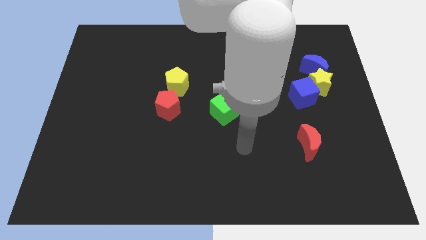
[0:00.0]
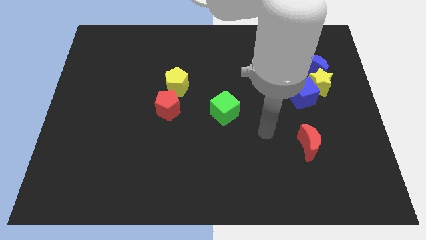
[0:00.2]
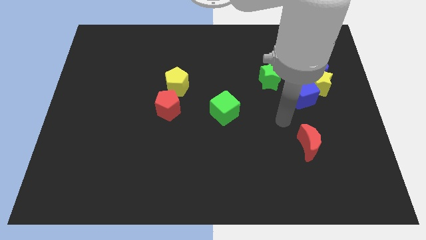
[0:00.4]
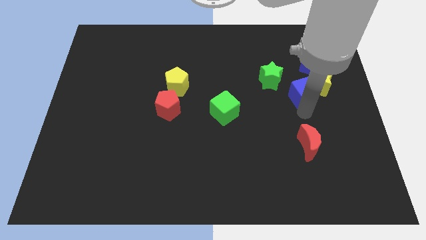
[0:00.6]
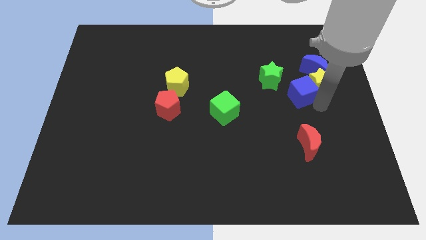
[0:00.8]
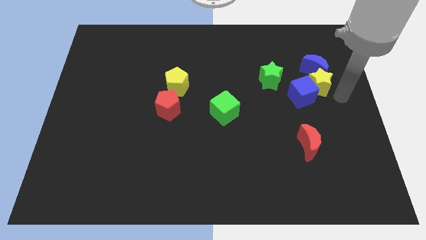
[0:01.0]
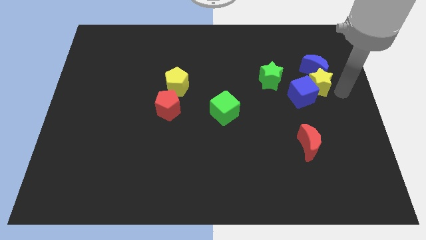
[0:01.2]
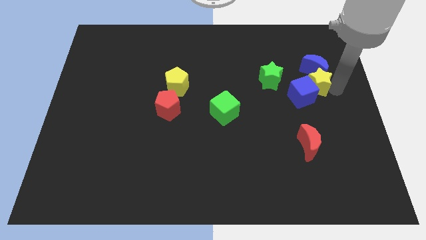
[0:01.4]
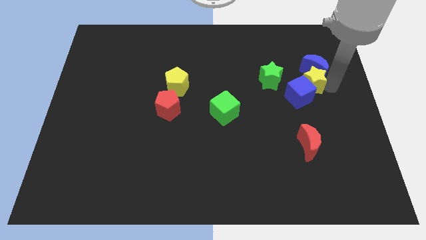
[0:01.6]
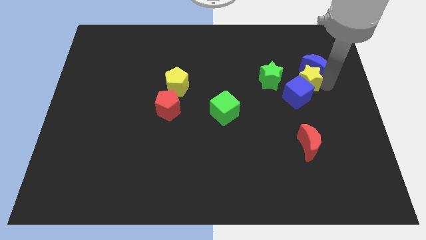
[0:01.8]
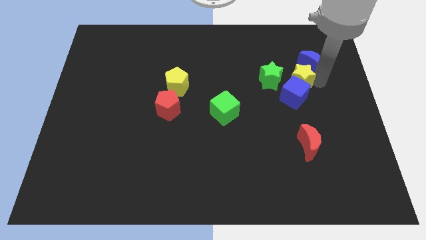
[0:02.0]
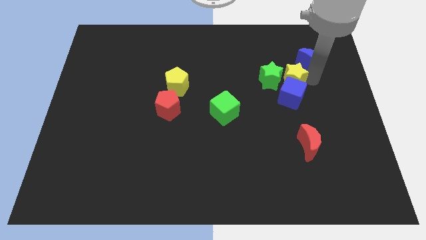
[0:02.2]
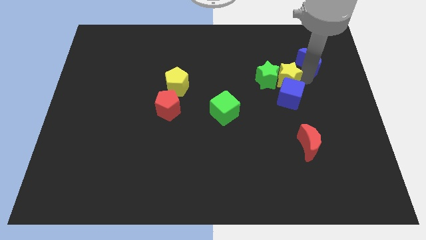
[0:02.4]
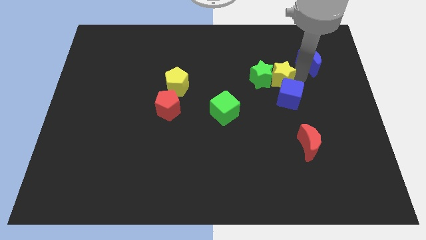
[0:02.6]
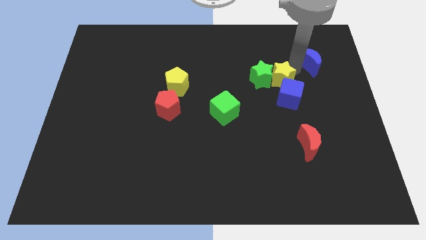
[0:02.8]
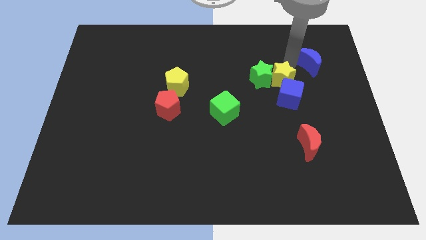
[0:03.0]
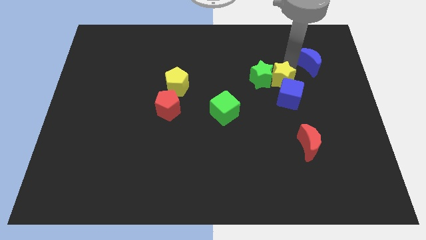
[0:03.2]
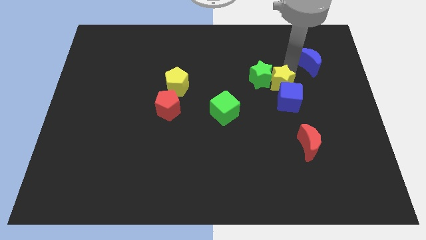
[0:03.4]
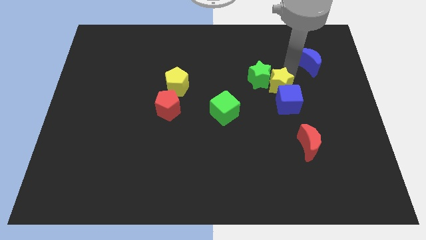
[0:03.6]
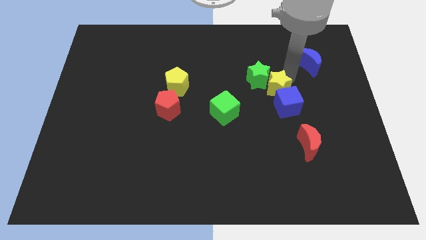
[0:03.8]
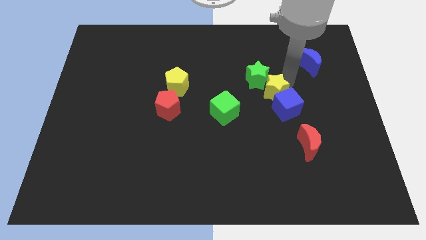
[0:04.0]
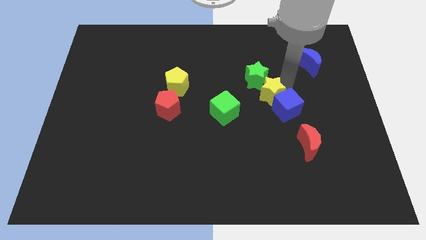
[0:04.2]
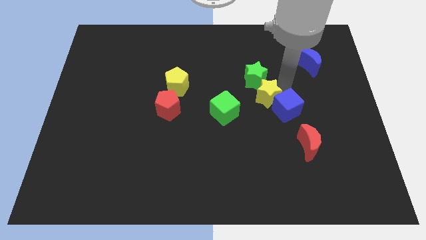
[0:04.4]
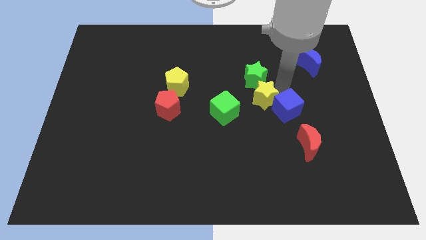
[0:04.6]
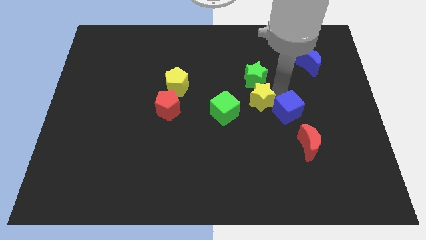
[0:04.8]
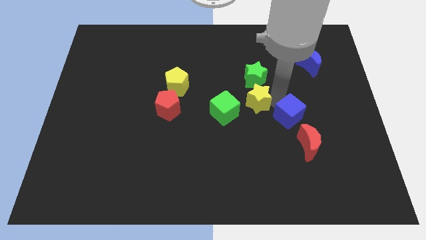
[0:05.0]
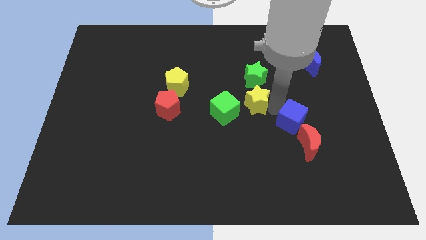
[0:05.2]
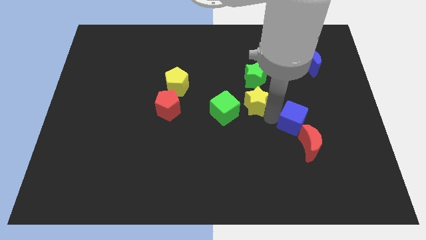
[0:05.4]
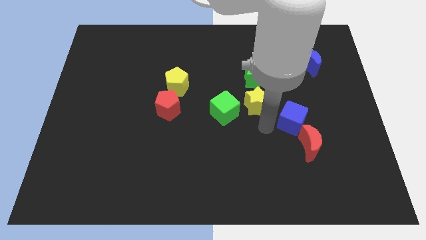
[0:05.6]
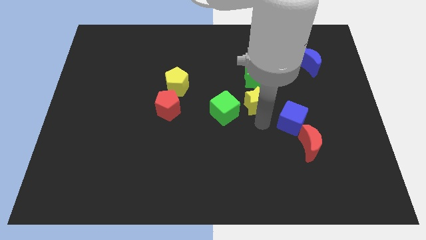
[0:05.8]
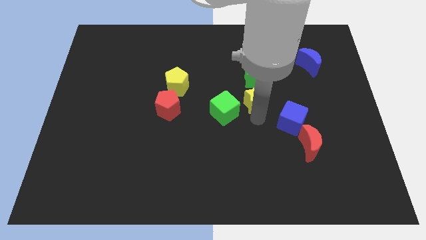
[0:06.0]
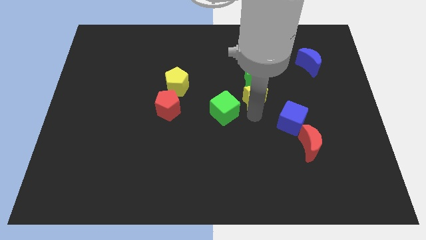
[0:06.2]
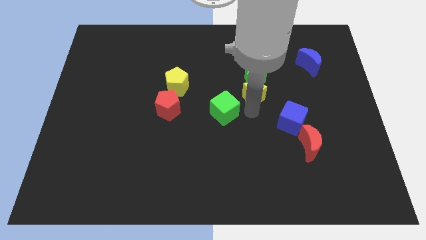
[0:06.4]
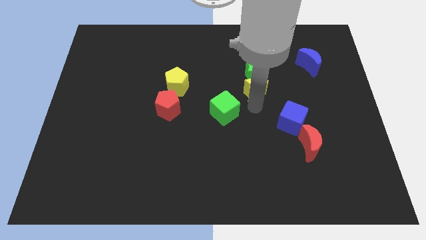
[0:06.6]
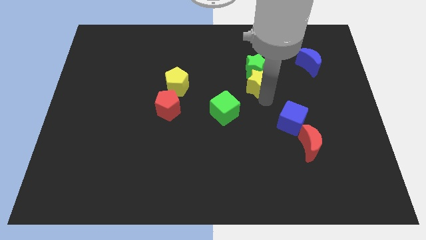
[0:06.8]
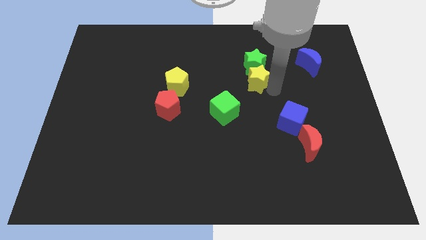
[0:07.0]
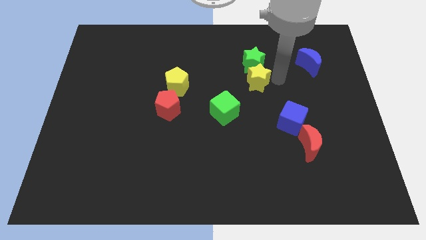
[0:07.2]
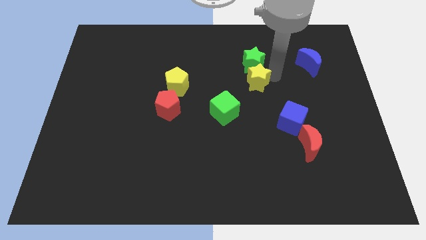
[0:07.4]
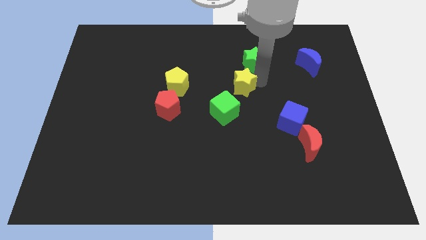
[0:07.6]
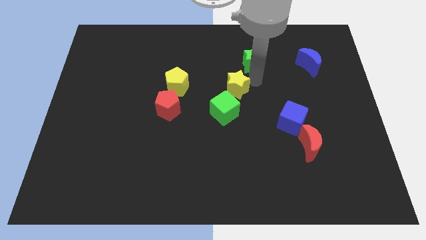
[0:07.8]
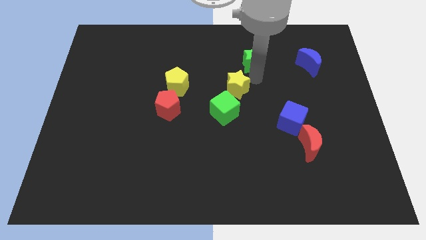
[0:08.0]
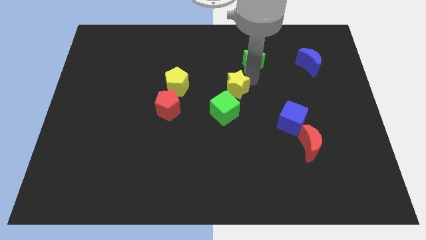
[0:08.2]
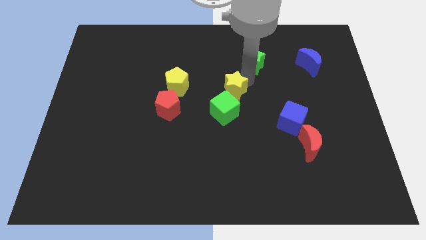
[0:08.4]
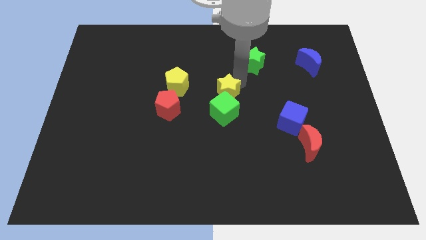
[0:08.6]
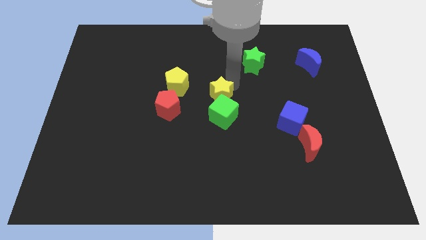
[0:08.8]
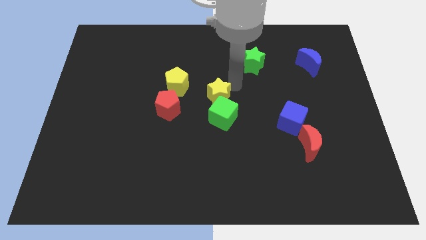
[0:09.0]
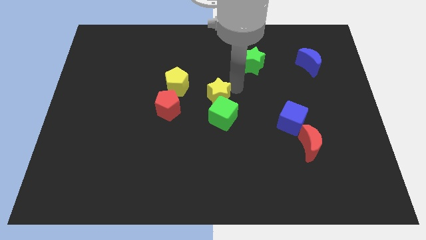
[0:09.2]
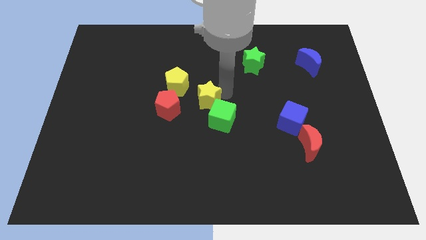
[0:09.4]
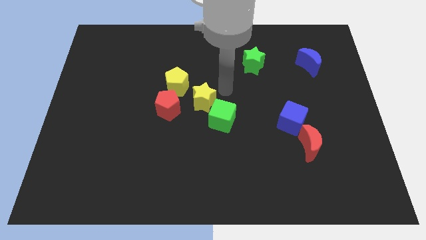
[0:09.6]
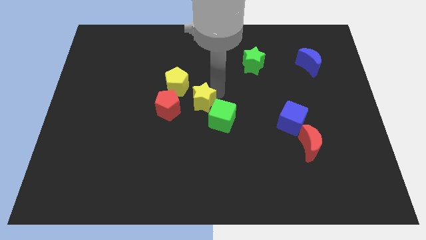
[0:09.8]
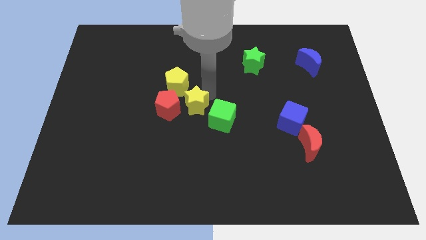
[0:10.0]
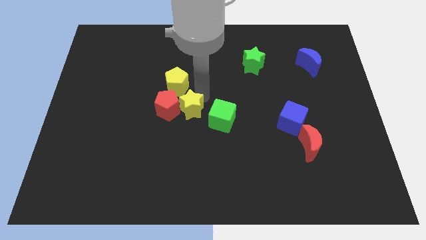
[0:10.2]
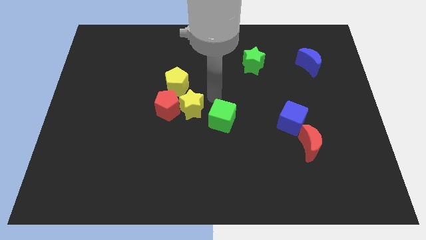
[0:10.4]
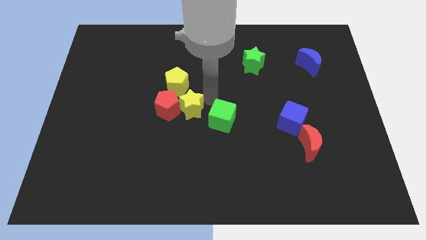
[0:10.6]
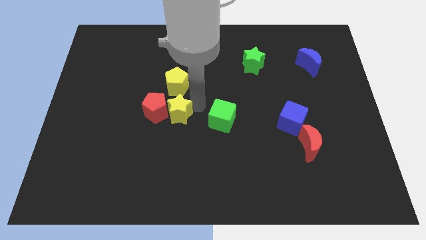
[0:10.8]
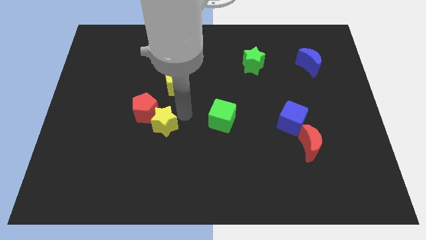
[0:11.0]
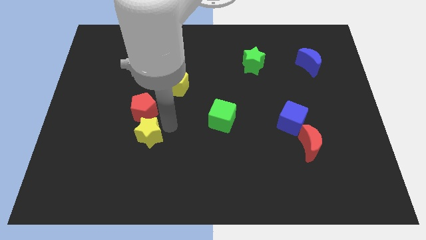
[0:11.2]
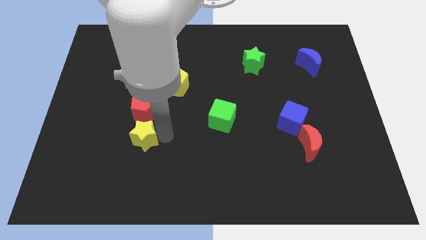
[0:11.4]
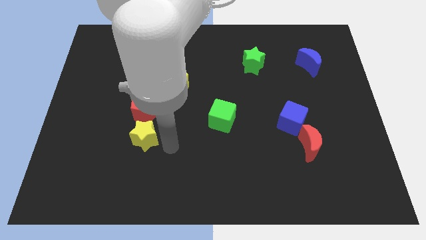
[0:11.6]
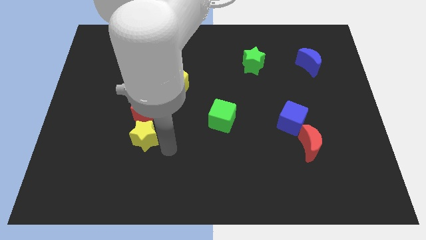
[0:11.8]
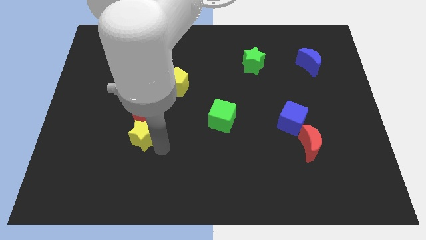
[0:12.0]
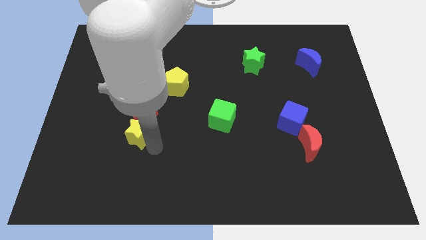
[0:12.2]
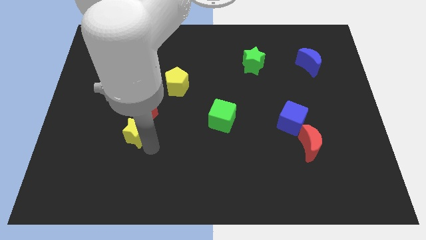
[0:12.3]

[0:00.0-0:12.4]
put the yellow star diagonally down and to the left of the red pentagon

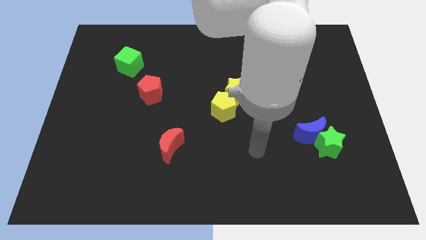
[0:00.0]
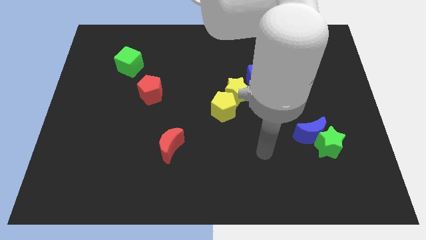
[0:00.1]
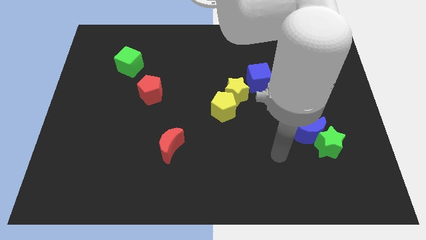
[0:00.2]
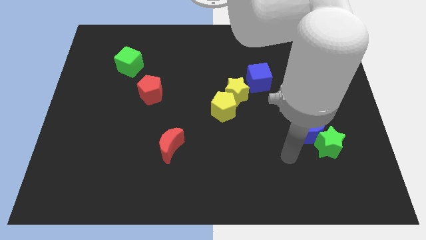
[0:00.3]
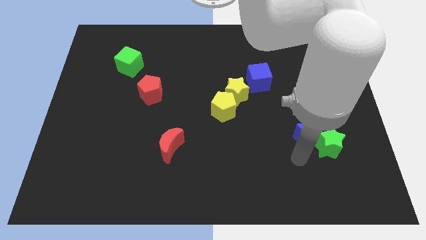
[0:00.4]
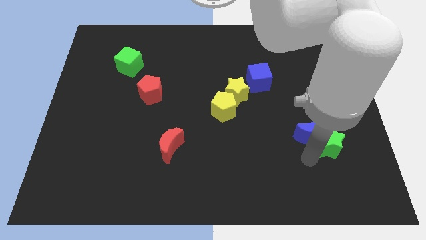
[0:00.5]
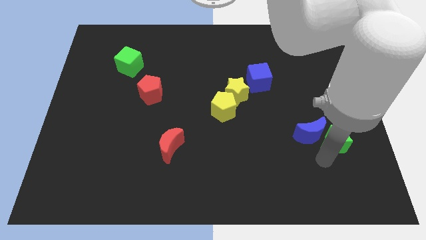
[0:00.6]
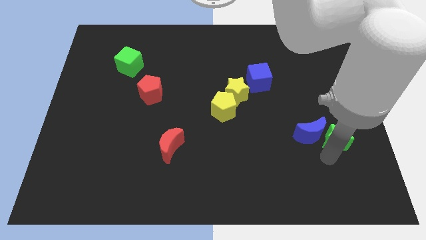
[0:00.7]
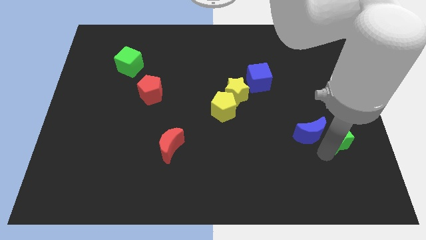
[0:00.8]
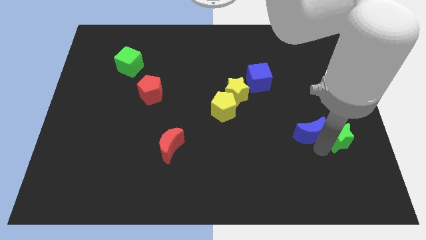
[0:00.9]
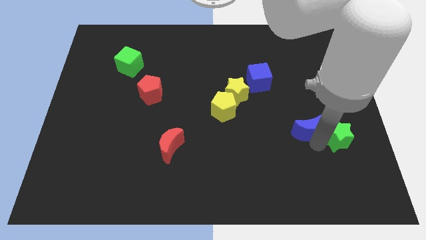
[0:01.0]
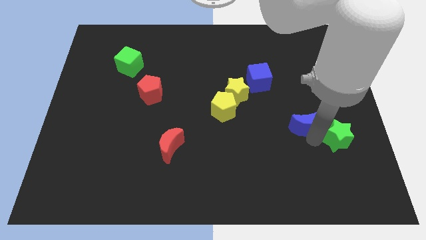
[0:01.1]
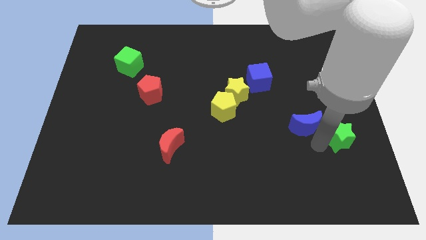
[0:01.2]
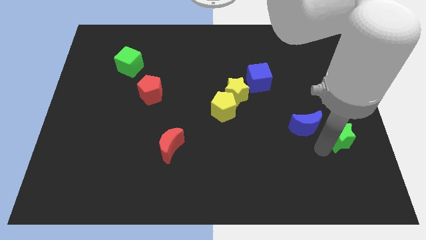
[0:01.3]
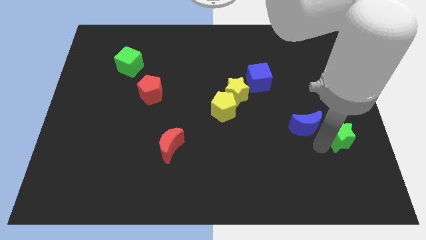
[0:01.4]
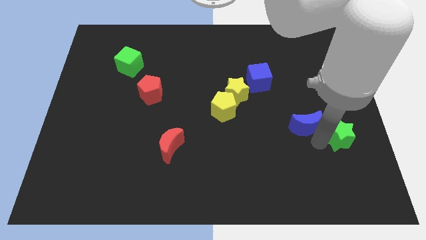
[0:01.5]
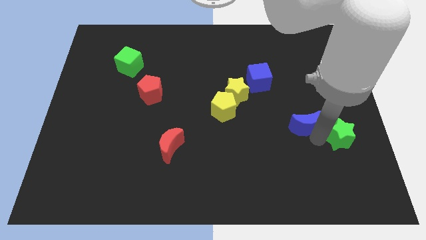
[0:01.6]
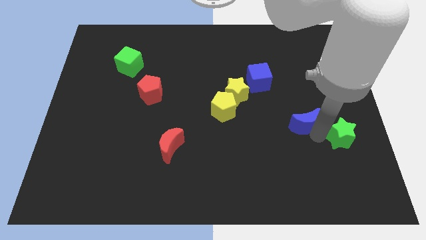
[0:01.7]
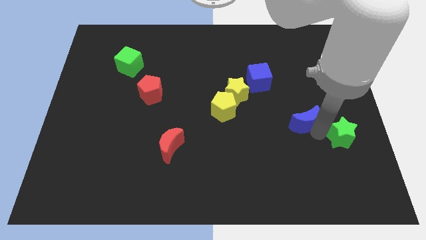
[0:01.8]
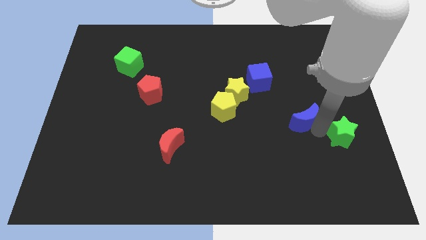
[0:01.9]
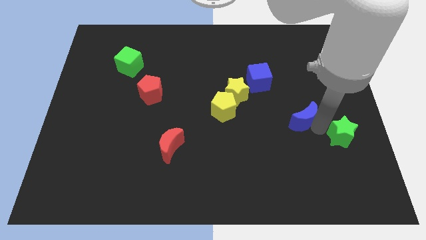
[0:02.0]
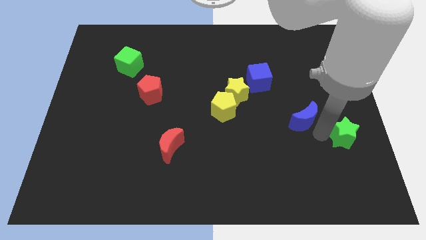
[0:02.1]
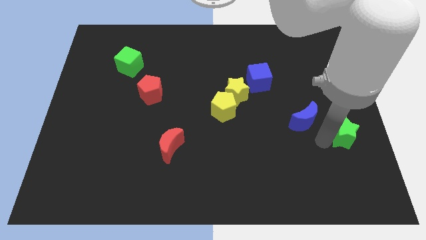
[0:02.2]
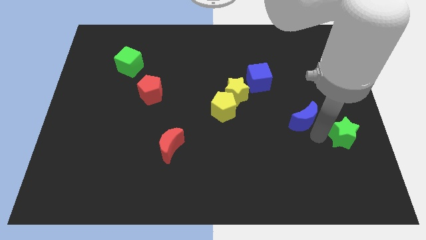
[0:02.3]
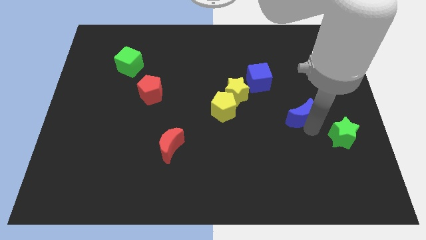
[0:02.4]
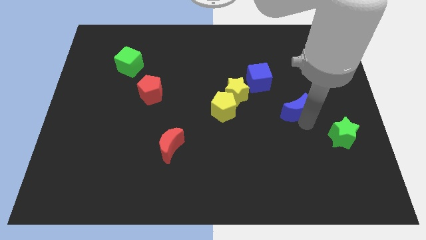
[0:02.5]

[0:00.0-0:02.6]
slide the blue moon to the bottom right side of the blue cube
